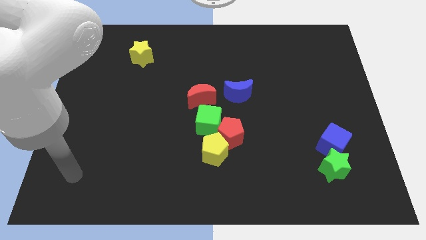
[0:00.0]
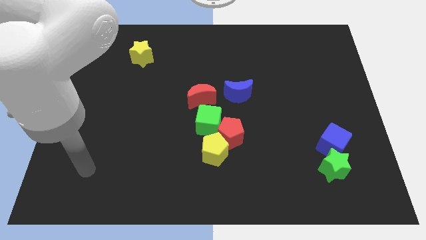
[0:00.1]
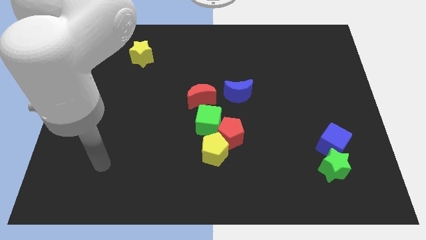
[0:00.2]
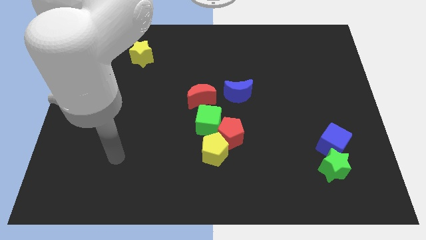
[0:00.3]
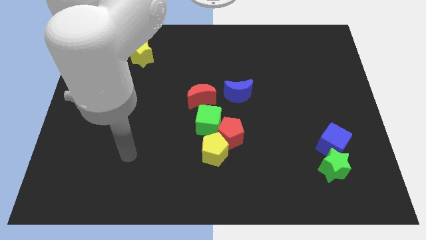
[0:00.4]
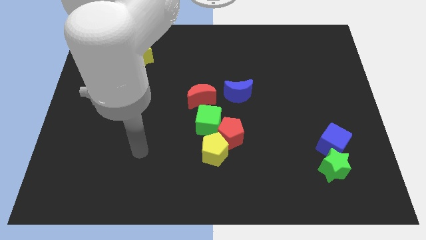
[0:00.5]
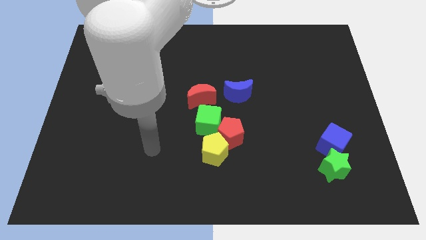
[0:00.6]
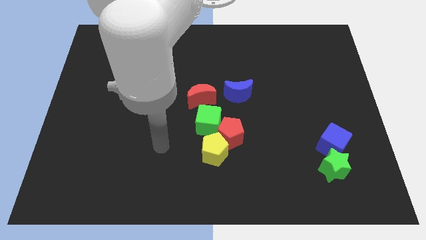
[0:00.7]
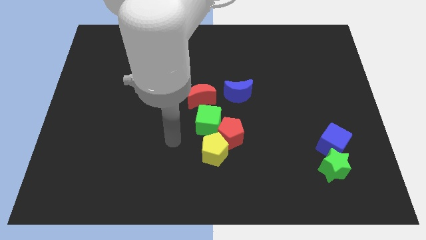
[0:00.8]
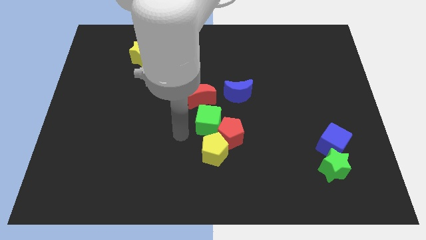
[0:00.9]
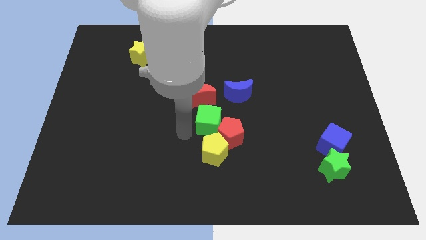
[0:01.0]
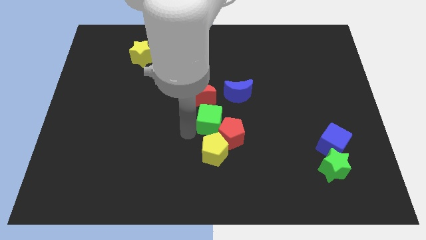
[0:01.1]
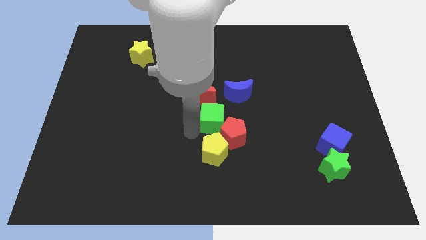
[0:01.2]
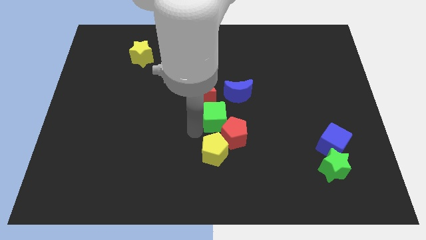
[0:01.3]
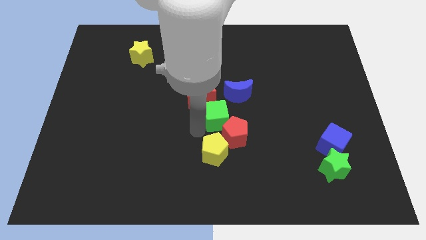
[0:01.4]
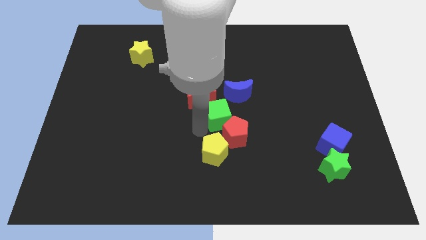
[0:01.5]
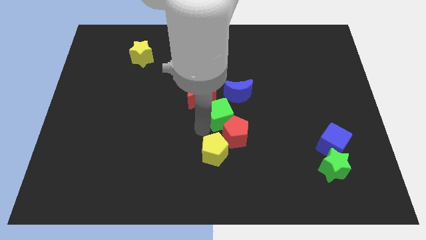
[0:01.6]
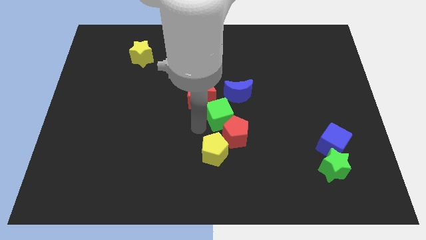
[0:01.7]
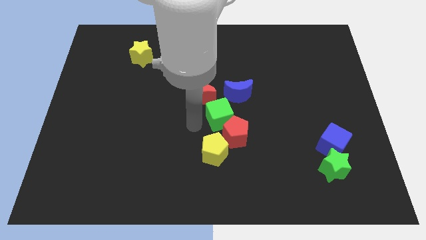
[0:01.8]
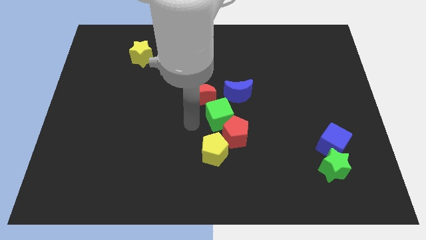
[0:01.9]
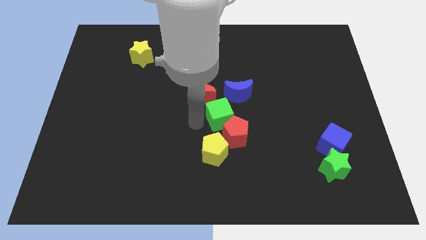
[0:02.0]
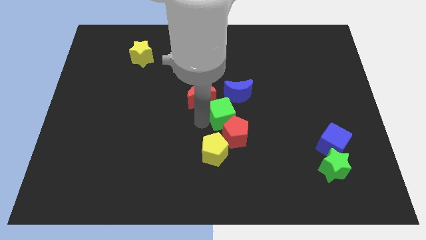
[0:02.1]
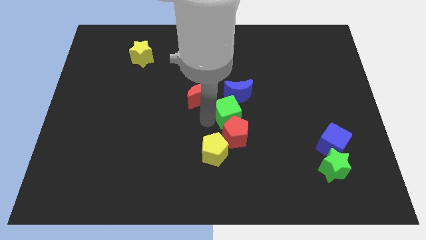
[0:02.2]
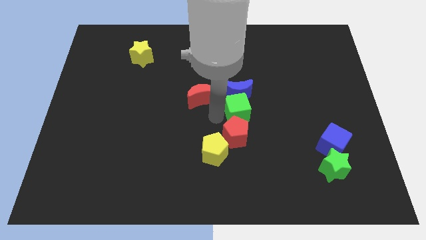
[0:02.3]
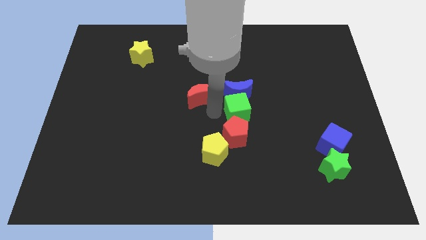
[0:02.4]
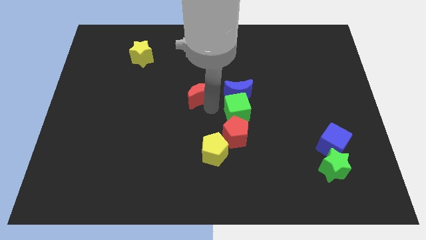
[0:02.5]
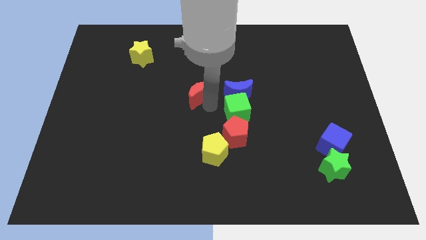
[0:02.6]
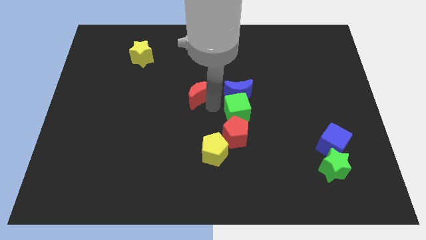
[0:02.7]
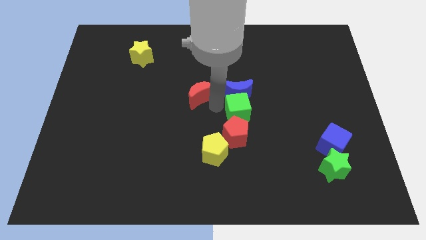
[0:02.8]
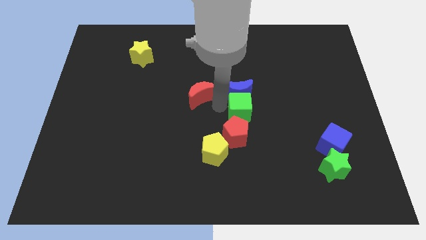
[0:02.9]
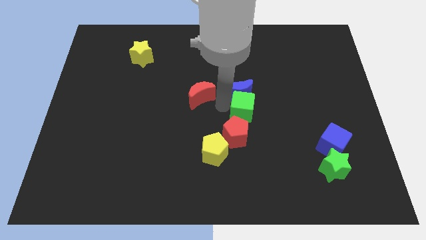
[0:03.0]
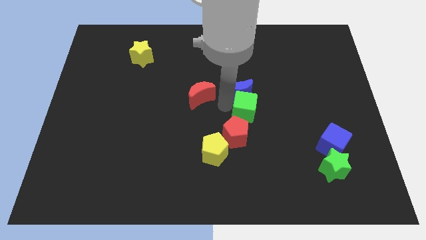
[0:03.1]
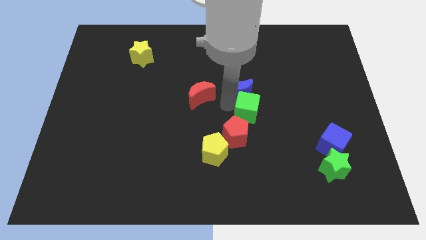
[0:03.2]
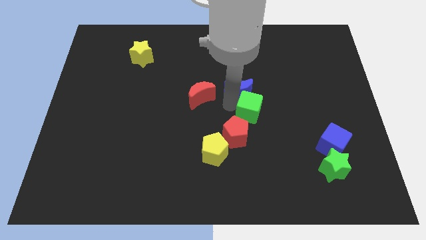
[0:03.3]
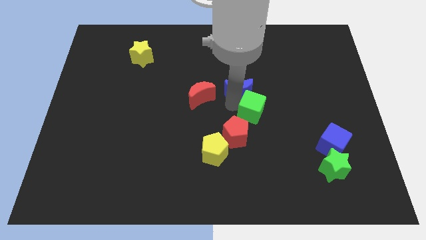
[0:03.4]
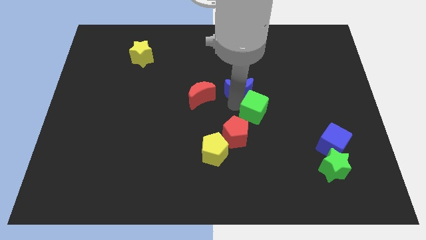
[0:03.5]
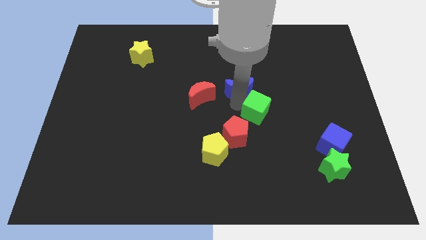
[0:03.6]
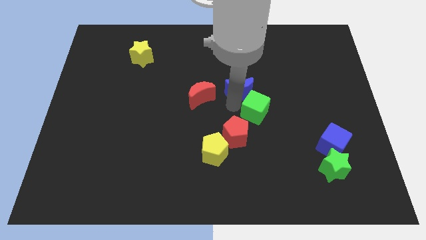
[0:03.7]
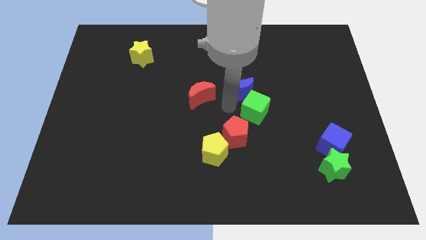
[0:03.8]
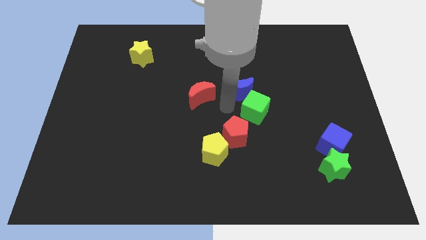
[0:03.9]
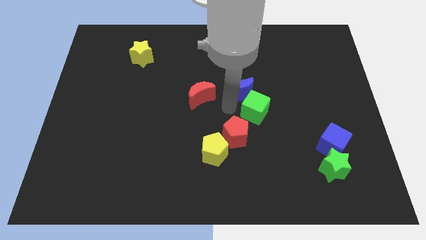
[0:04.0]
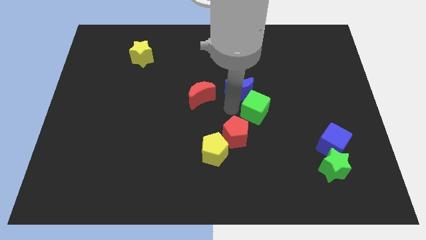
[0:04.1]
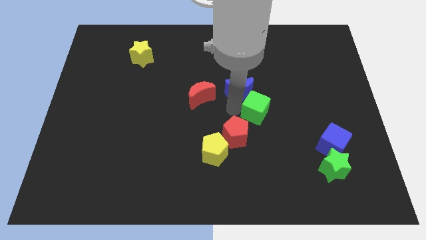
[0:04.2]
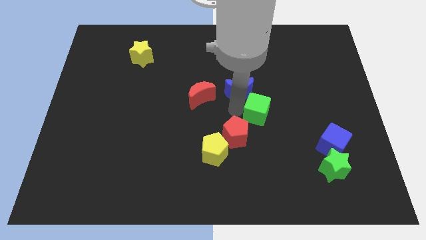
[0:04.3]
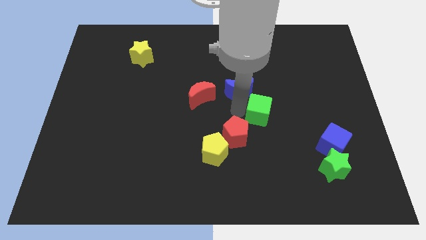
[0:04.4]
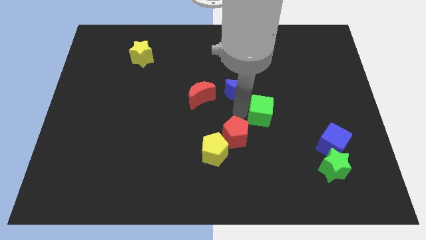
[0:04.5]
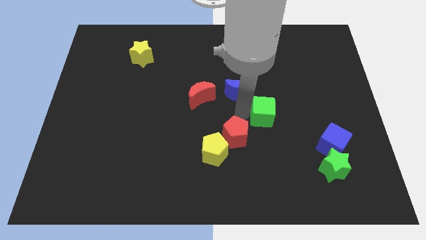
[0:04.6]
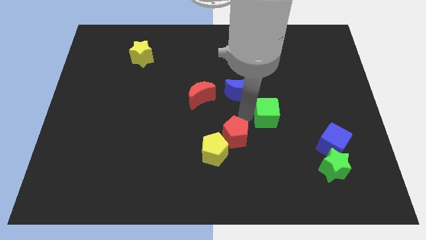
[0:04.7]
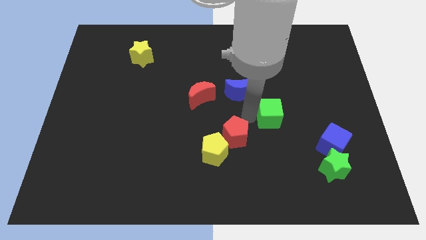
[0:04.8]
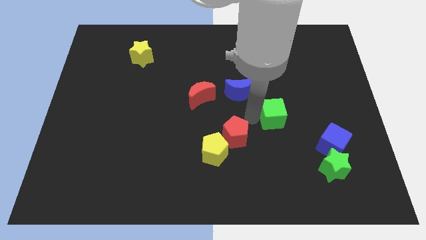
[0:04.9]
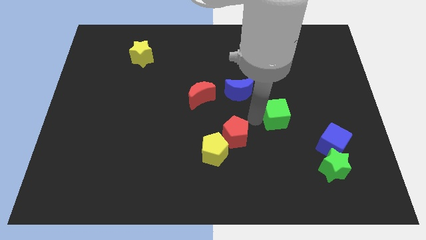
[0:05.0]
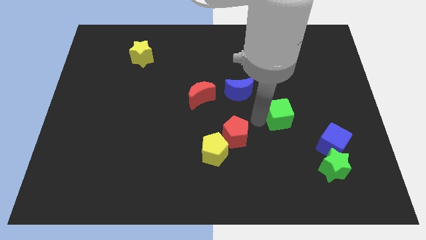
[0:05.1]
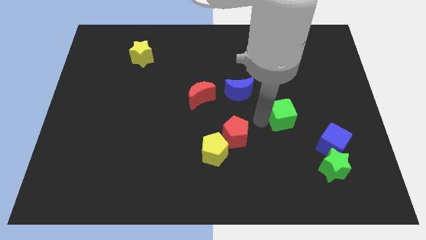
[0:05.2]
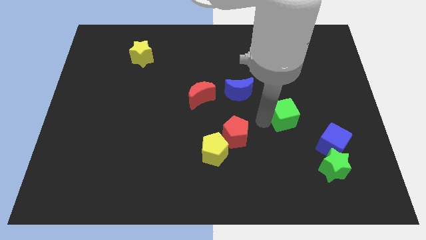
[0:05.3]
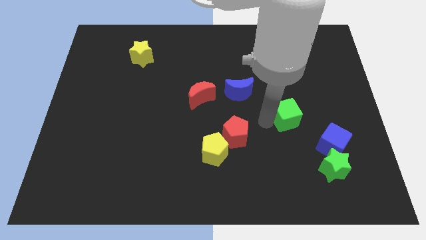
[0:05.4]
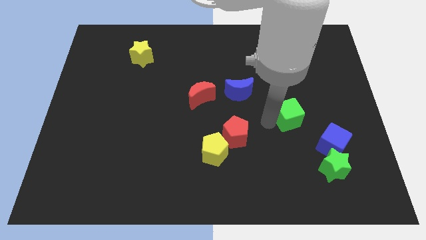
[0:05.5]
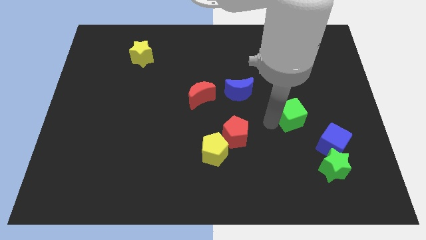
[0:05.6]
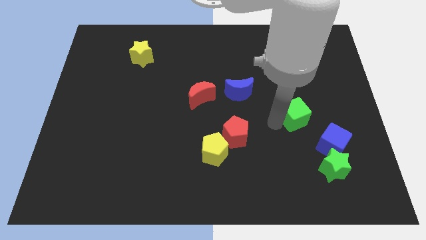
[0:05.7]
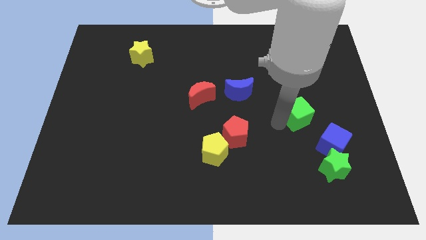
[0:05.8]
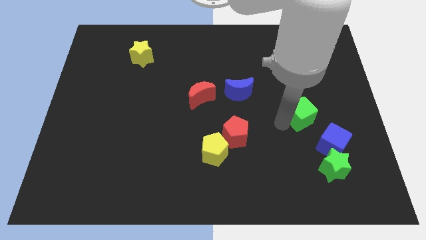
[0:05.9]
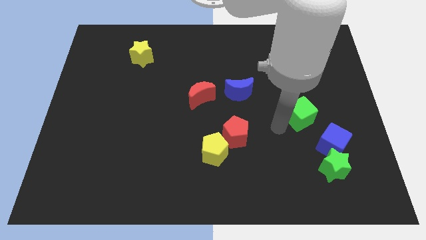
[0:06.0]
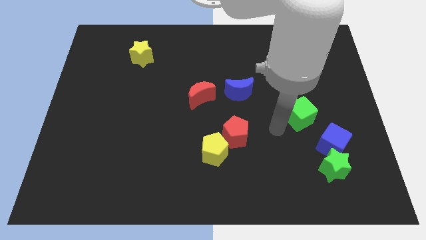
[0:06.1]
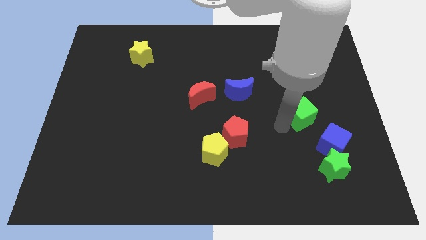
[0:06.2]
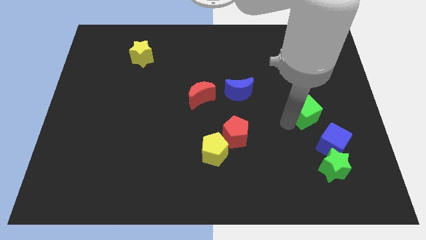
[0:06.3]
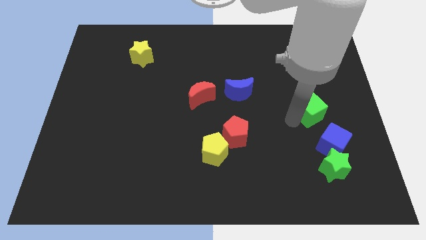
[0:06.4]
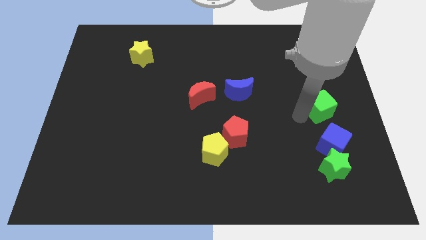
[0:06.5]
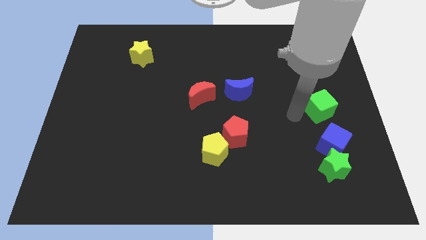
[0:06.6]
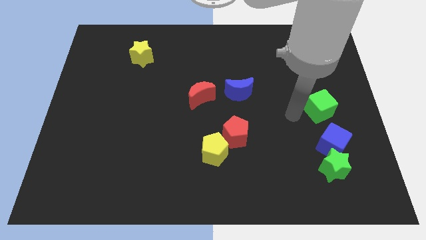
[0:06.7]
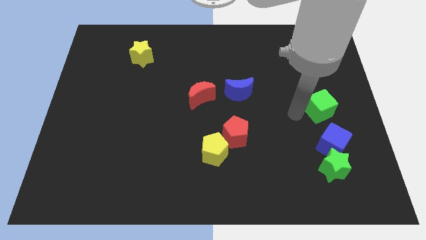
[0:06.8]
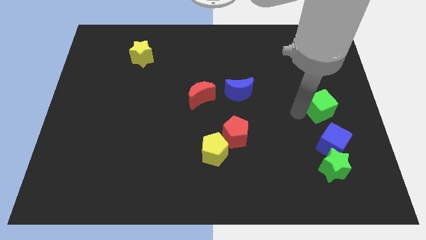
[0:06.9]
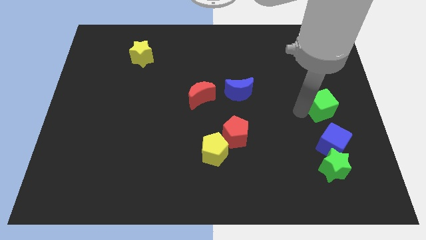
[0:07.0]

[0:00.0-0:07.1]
slide the green cube to the right side
